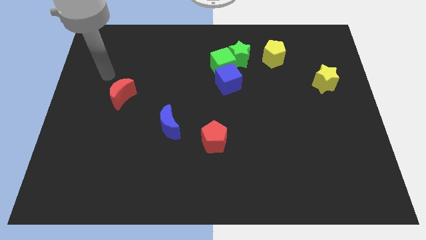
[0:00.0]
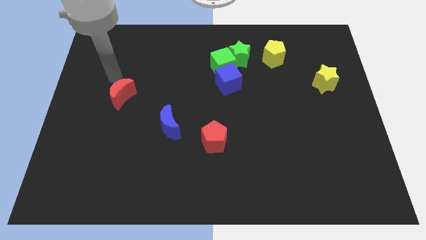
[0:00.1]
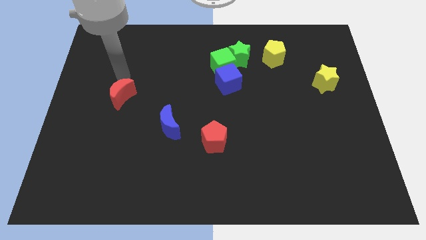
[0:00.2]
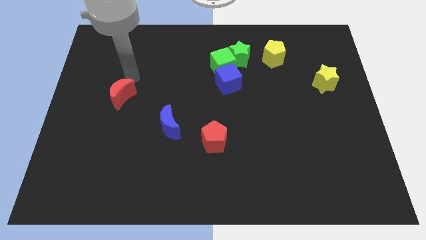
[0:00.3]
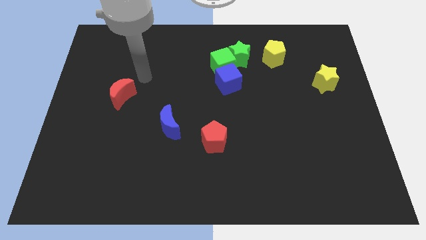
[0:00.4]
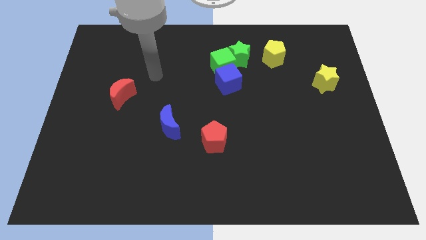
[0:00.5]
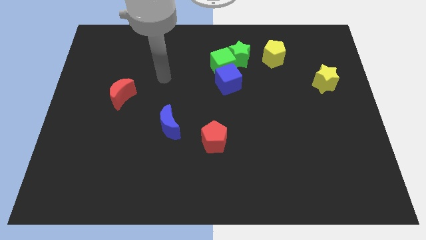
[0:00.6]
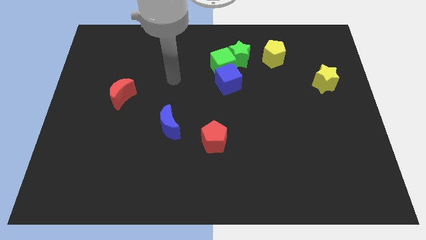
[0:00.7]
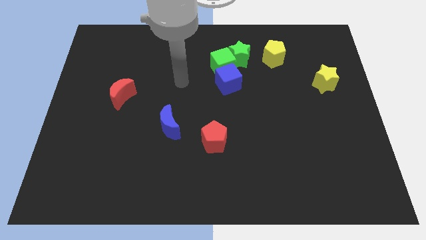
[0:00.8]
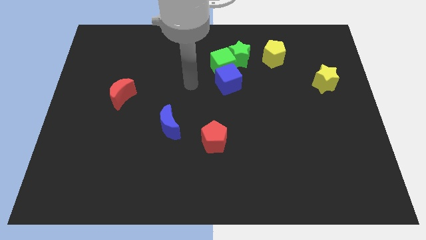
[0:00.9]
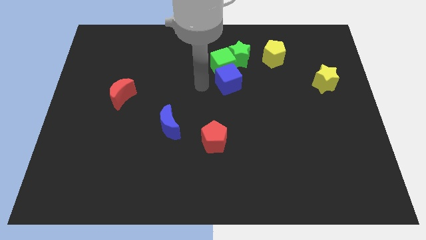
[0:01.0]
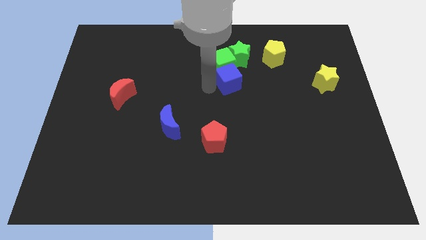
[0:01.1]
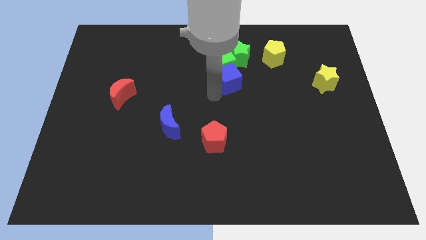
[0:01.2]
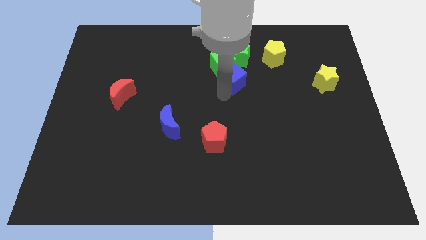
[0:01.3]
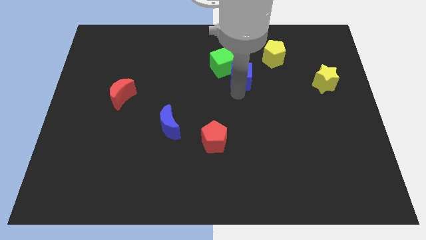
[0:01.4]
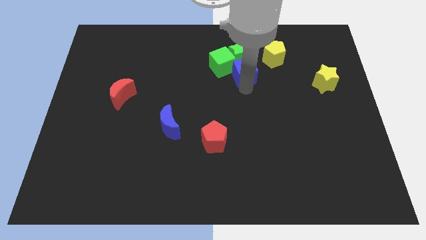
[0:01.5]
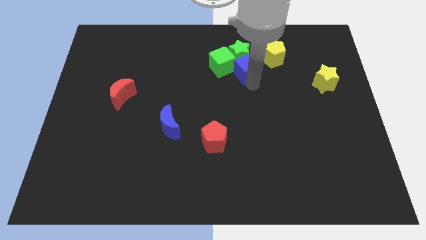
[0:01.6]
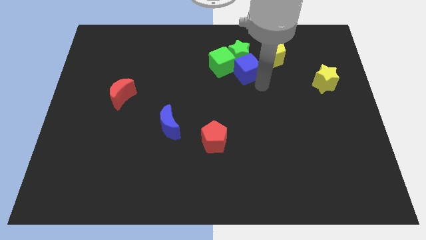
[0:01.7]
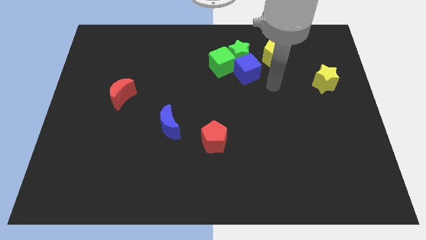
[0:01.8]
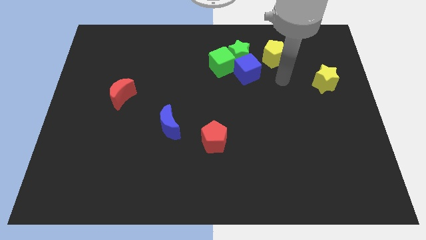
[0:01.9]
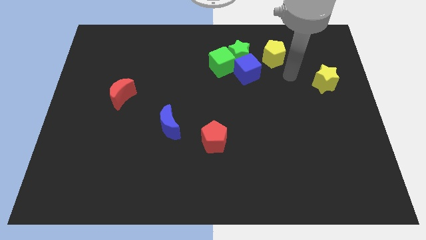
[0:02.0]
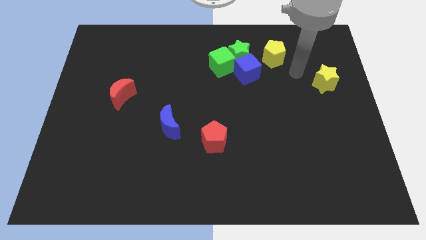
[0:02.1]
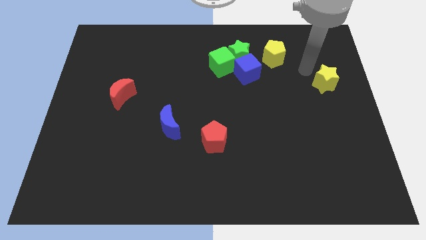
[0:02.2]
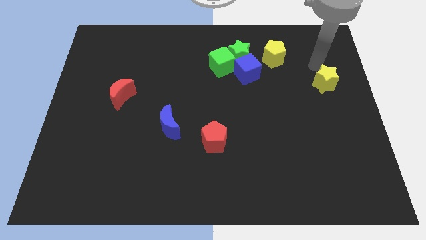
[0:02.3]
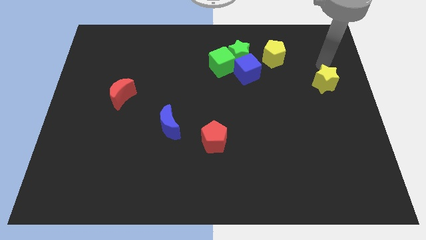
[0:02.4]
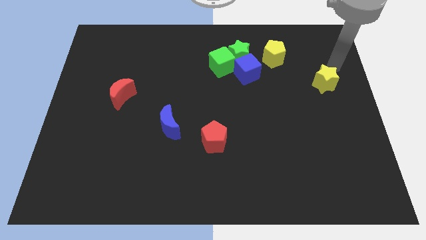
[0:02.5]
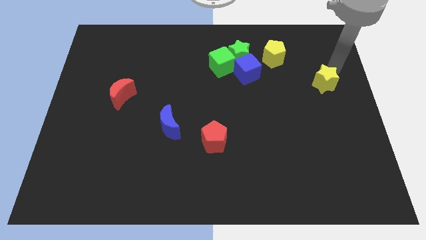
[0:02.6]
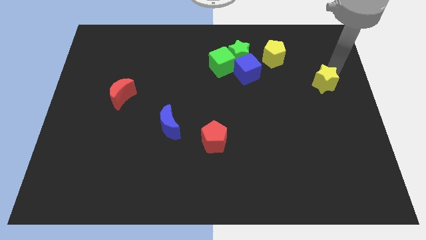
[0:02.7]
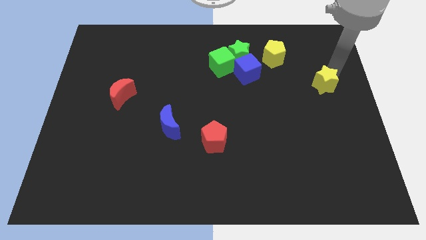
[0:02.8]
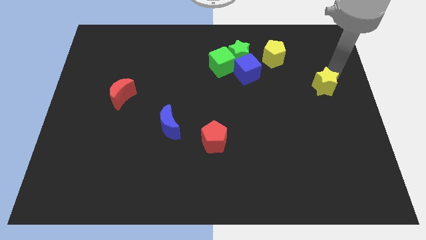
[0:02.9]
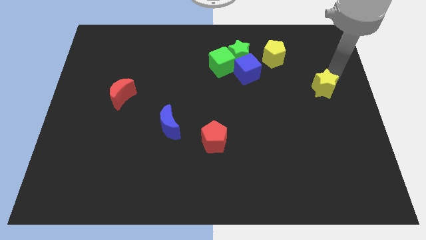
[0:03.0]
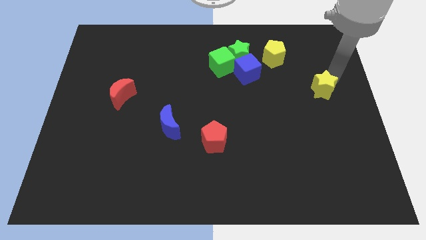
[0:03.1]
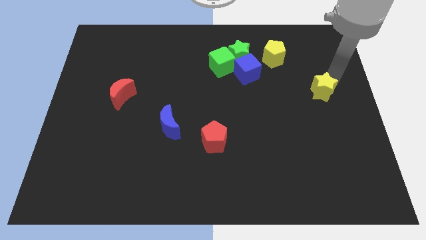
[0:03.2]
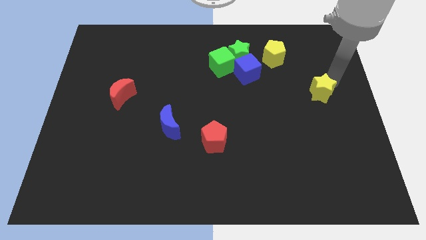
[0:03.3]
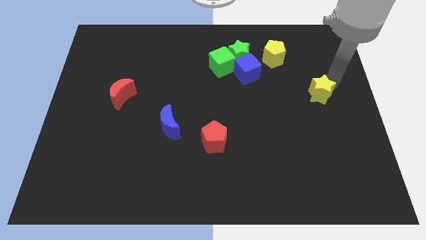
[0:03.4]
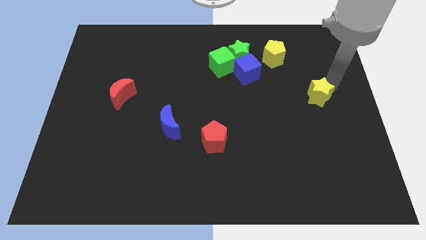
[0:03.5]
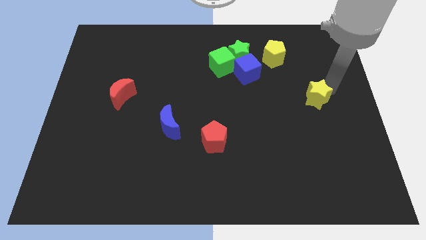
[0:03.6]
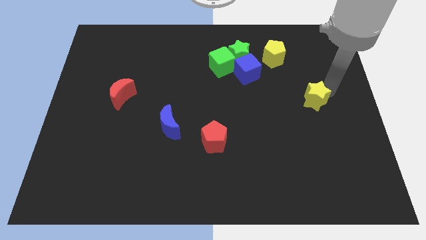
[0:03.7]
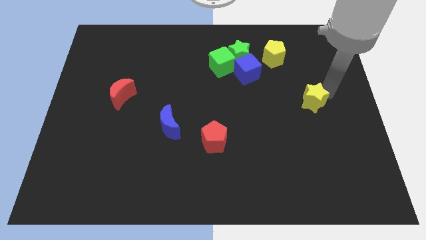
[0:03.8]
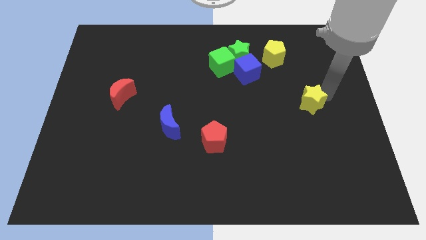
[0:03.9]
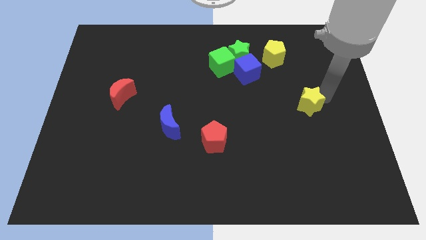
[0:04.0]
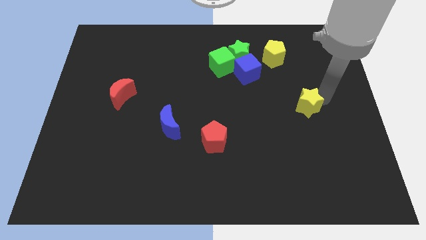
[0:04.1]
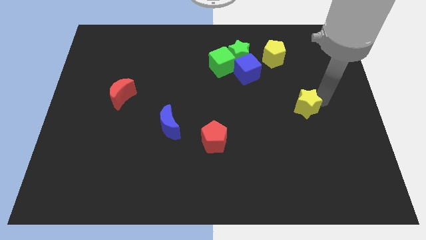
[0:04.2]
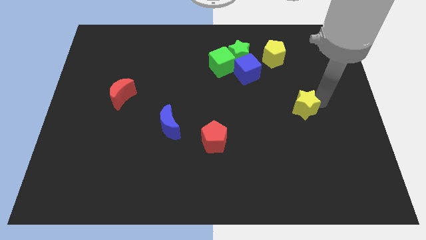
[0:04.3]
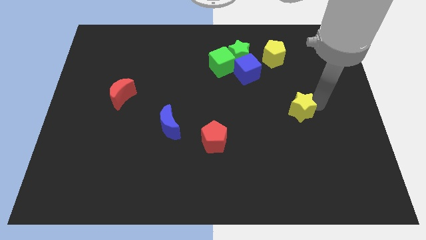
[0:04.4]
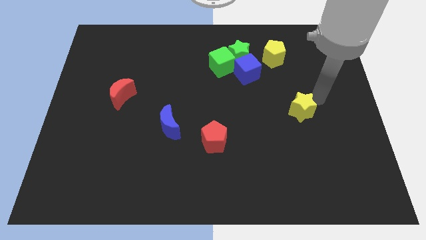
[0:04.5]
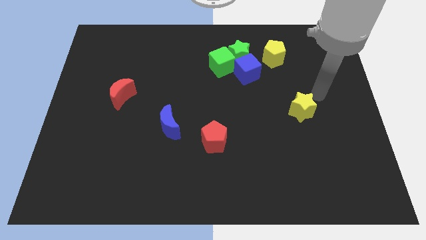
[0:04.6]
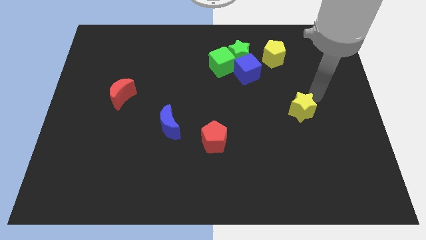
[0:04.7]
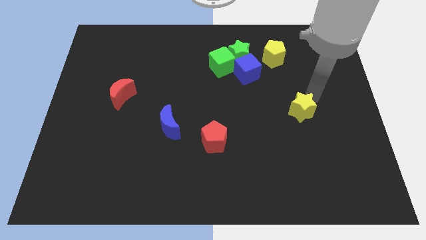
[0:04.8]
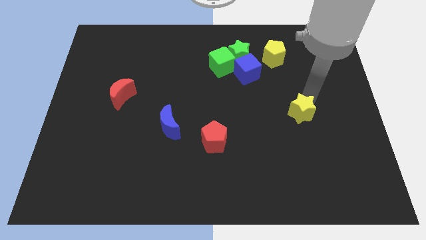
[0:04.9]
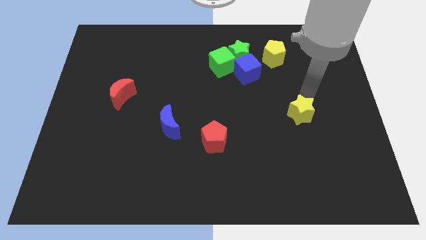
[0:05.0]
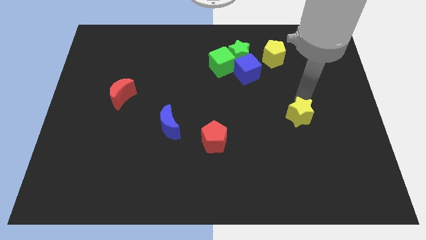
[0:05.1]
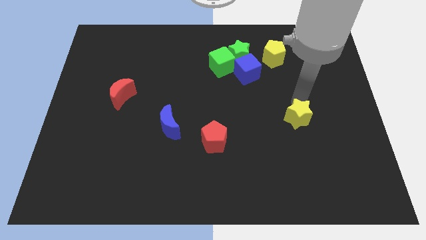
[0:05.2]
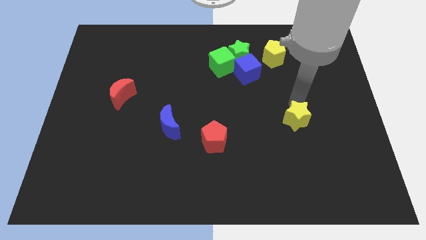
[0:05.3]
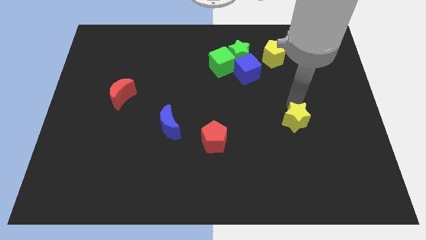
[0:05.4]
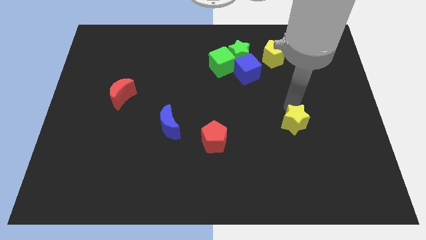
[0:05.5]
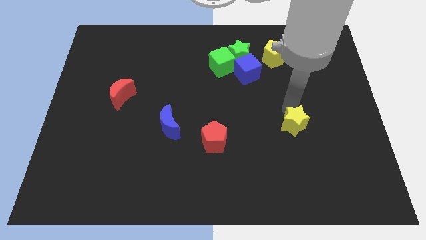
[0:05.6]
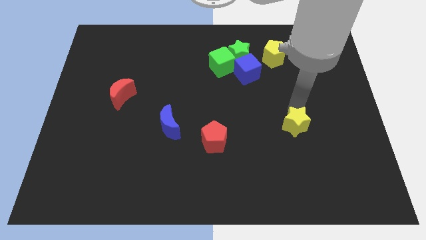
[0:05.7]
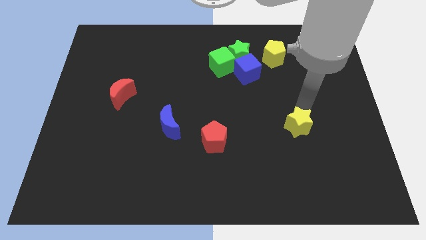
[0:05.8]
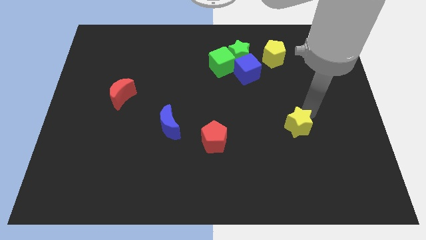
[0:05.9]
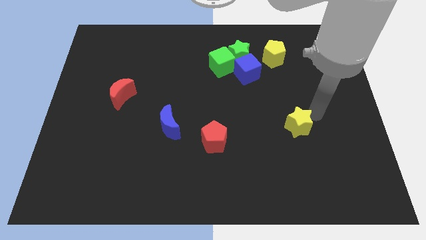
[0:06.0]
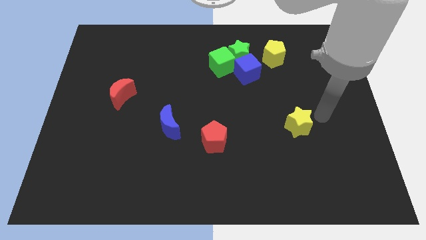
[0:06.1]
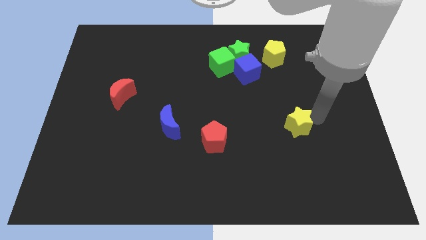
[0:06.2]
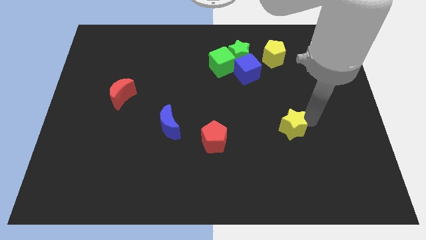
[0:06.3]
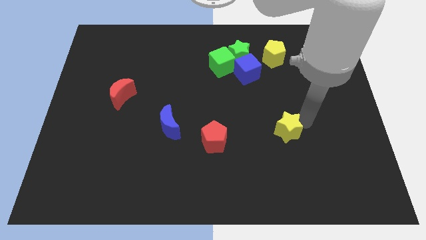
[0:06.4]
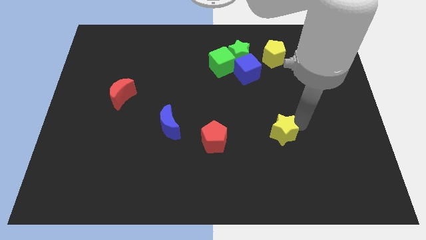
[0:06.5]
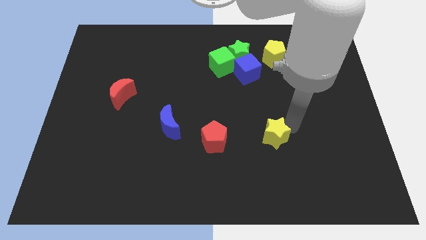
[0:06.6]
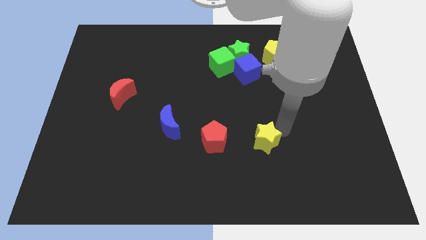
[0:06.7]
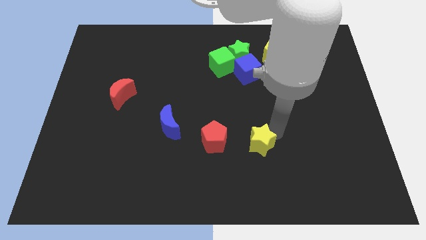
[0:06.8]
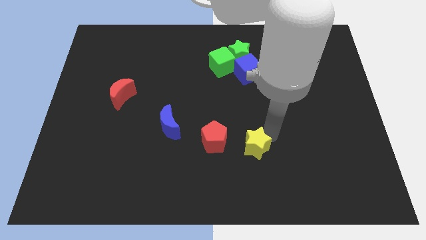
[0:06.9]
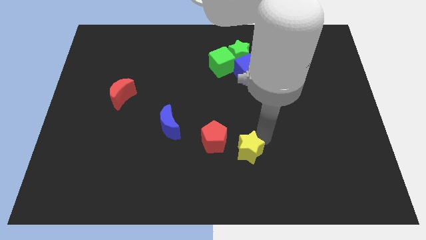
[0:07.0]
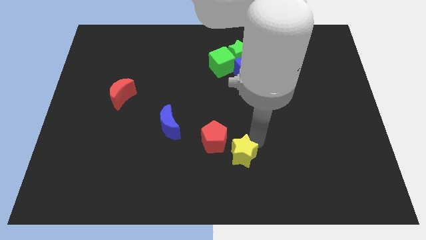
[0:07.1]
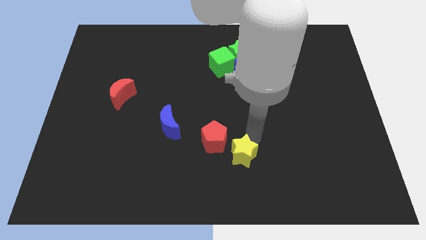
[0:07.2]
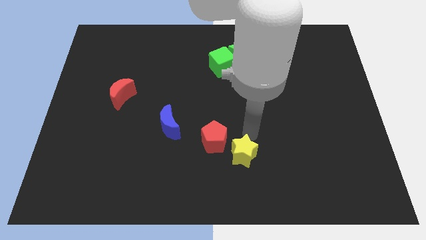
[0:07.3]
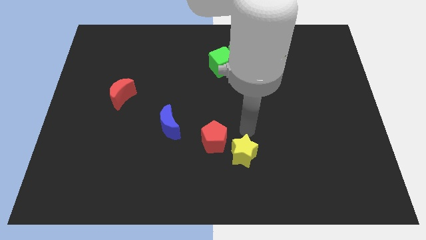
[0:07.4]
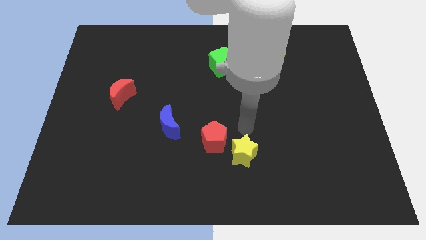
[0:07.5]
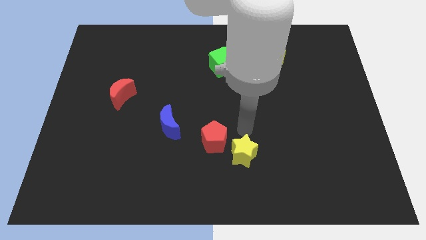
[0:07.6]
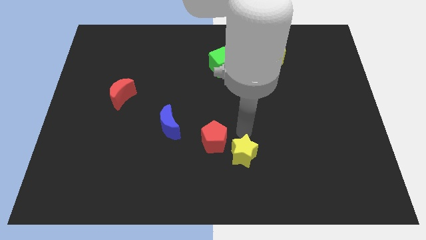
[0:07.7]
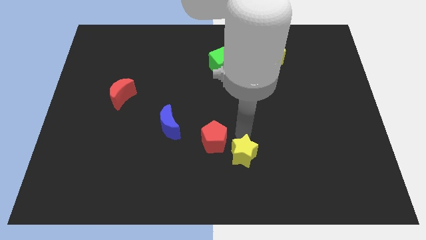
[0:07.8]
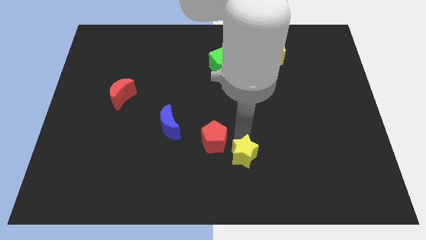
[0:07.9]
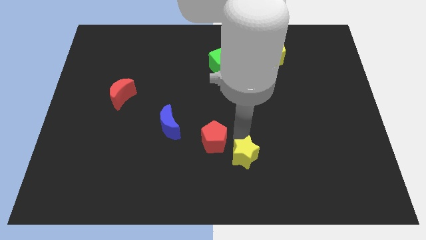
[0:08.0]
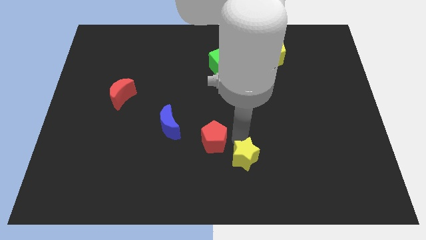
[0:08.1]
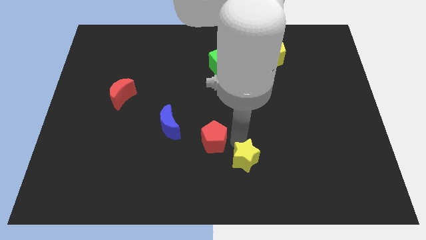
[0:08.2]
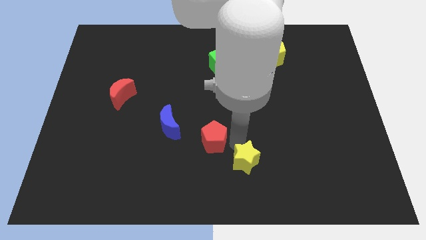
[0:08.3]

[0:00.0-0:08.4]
put the yellow star to the bottom side
